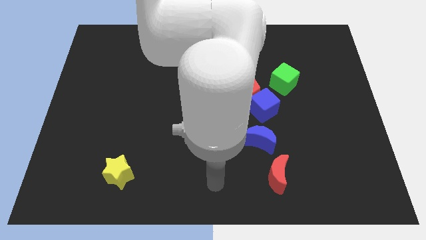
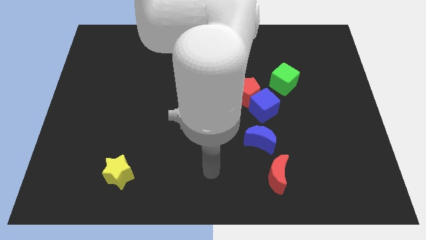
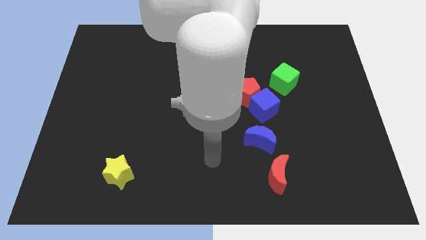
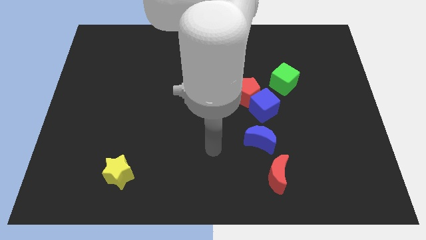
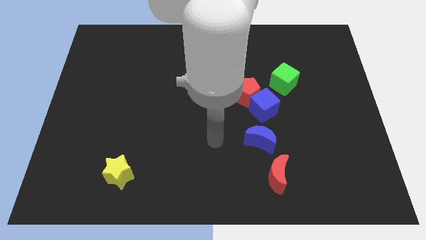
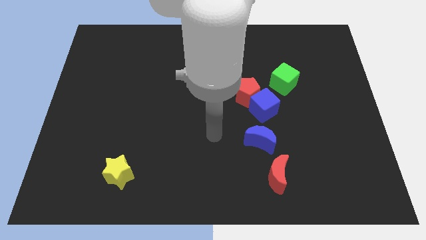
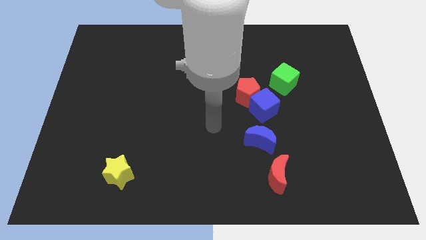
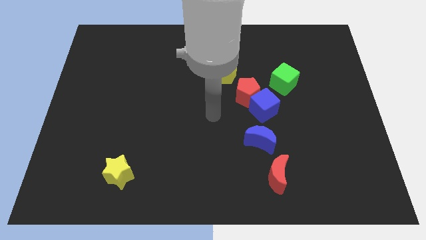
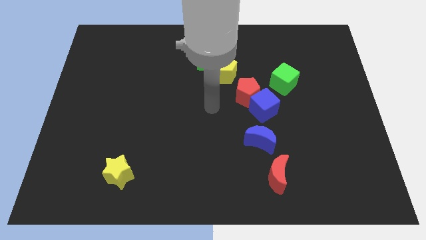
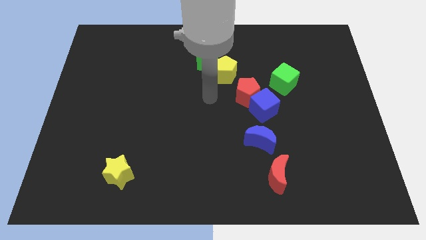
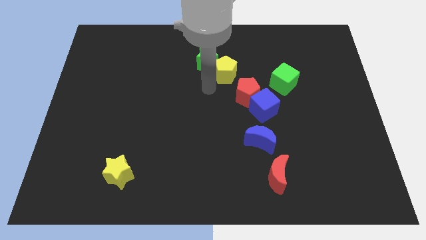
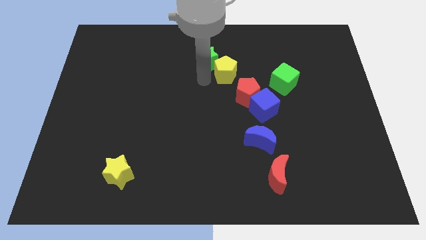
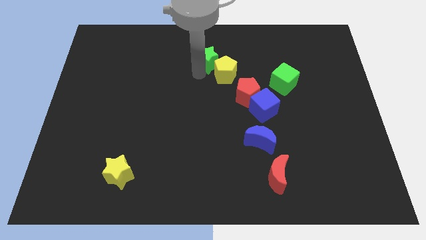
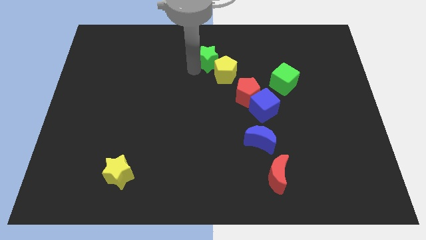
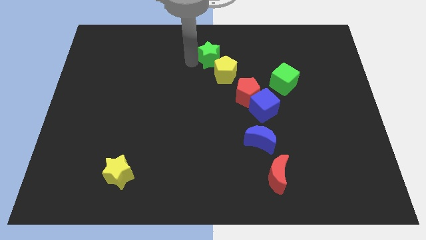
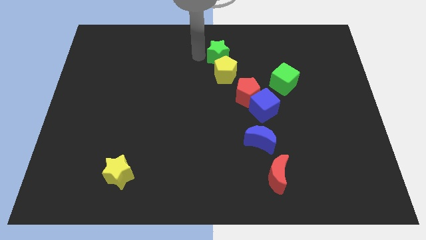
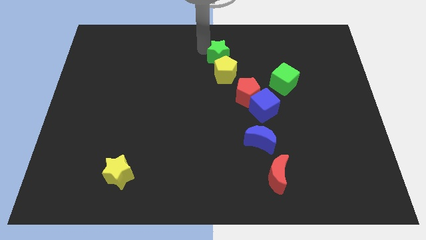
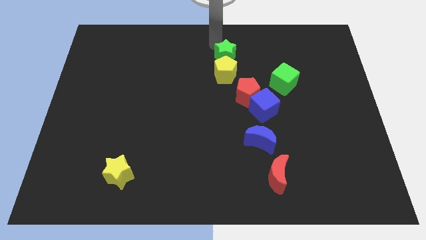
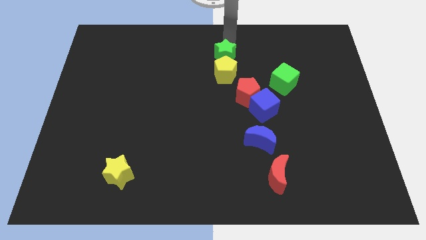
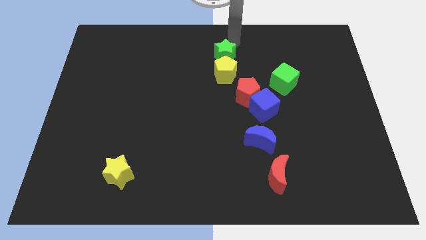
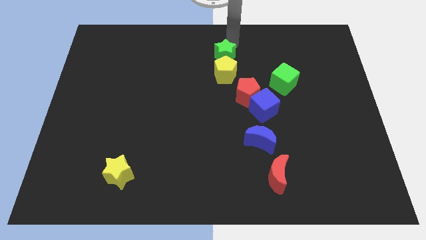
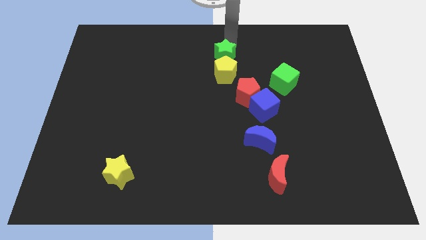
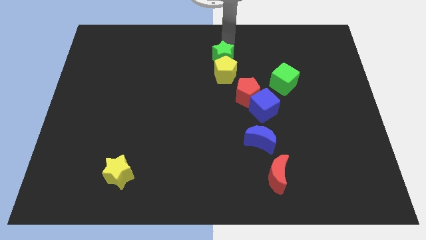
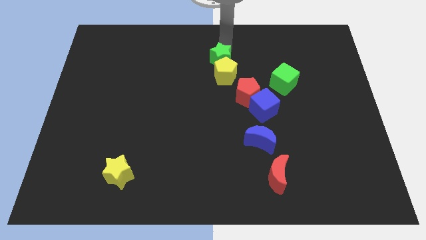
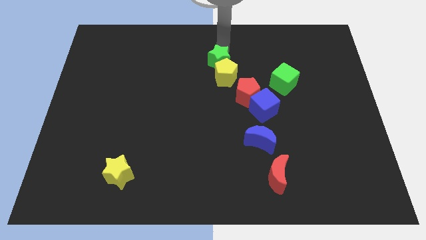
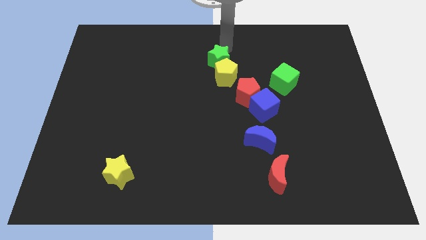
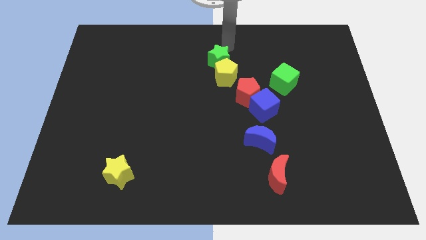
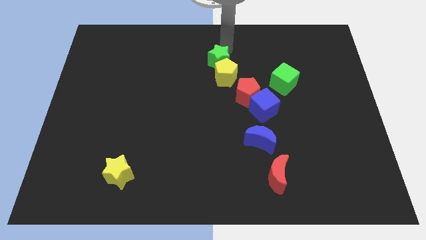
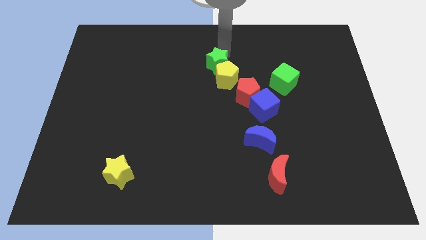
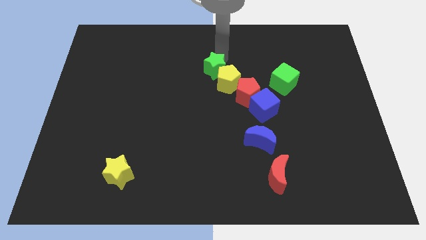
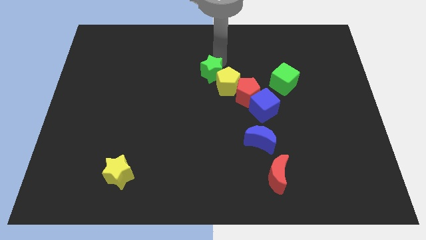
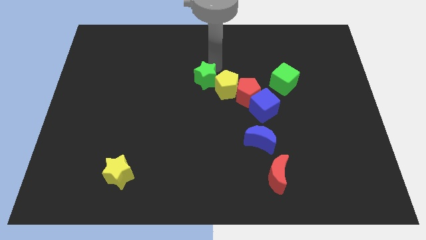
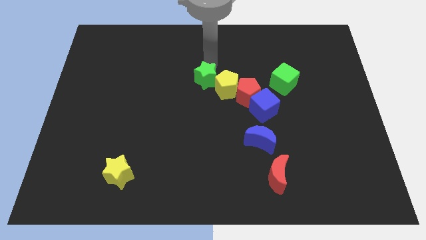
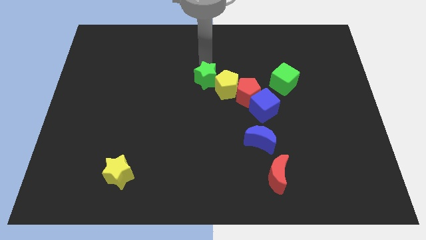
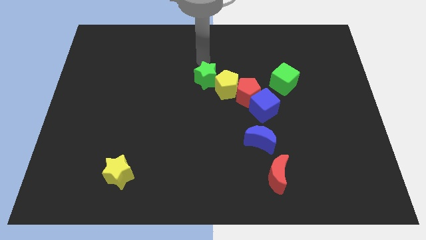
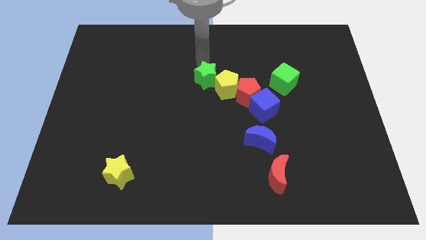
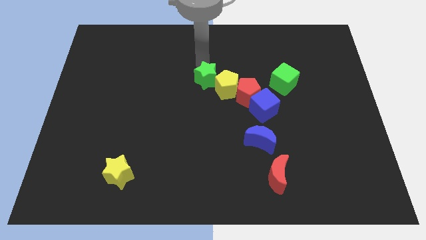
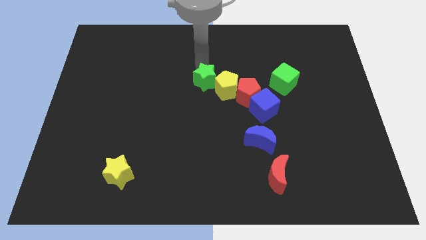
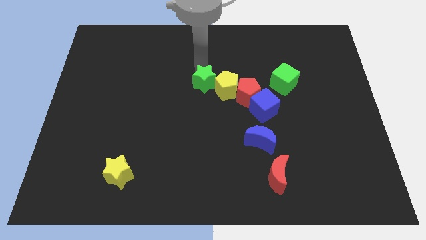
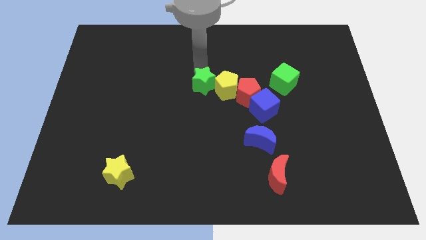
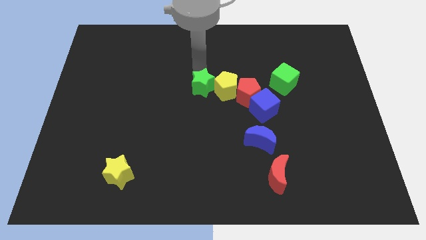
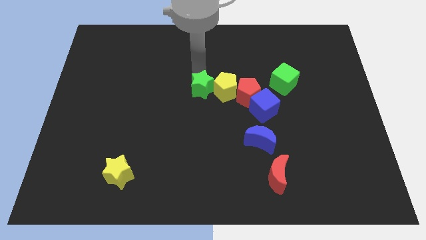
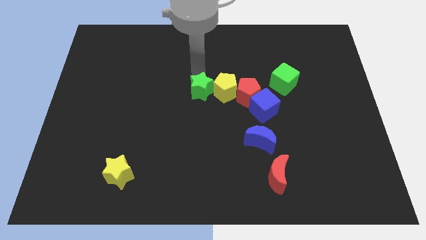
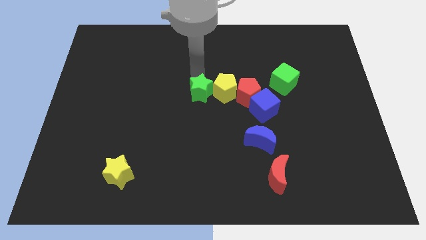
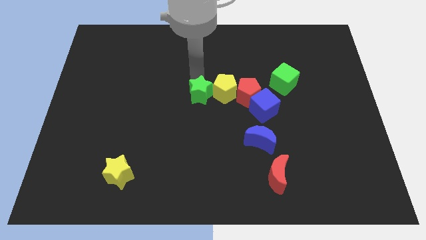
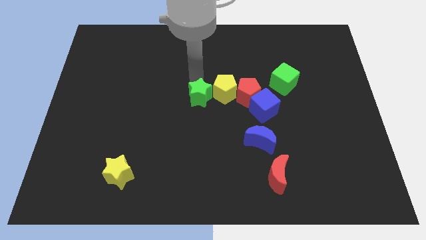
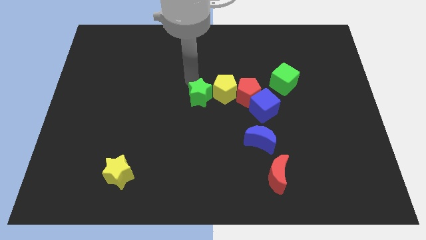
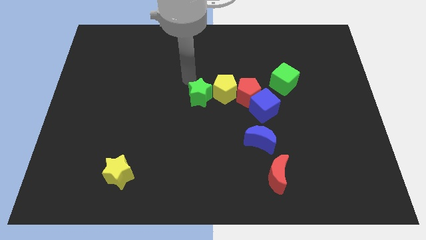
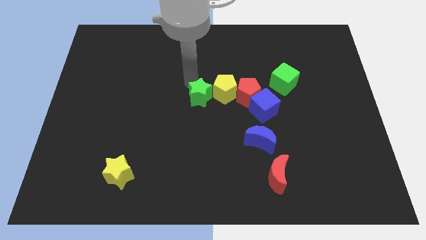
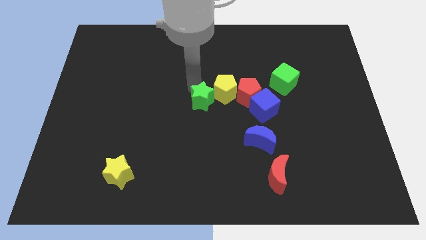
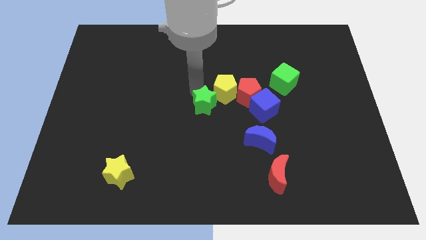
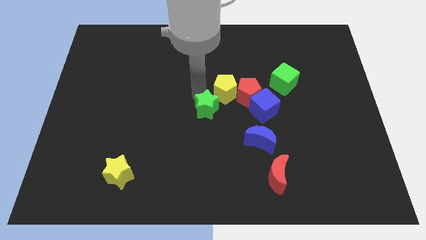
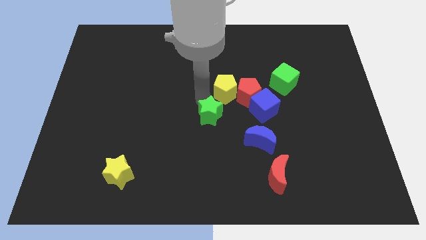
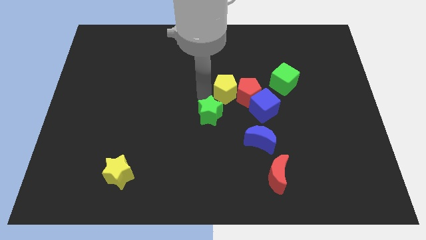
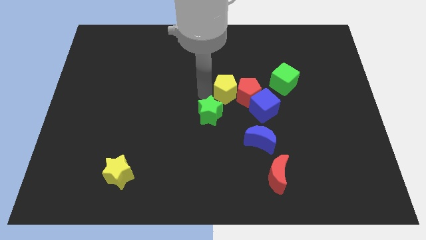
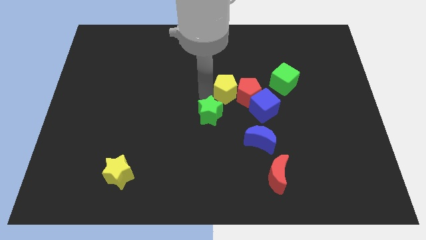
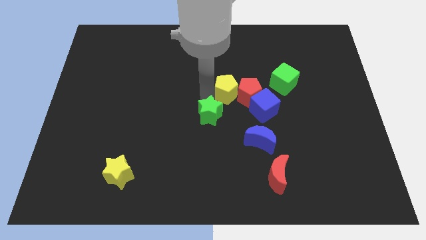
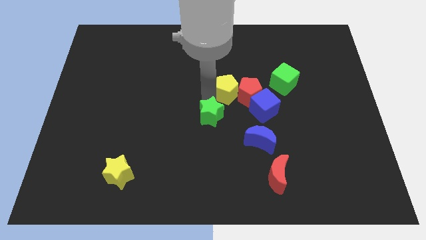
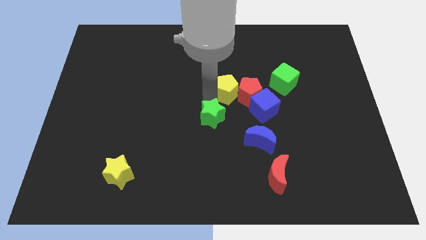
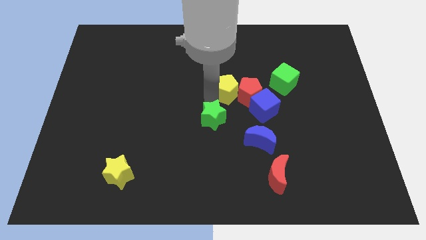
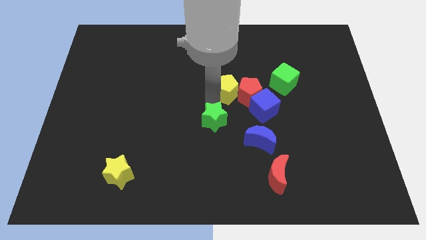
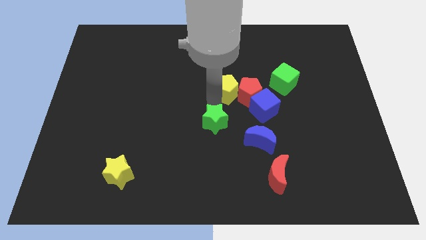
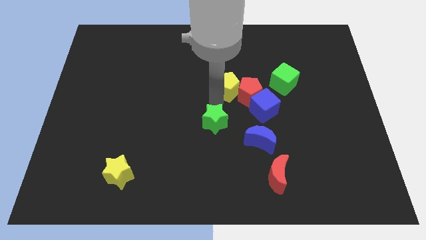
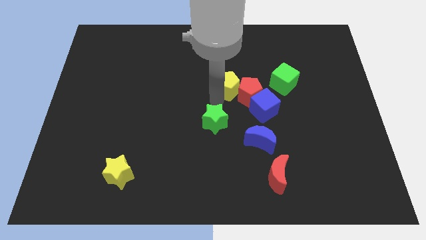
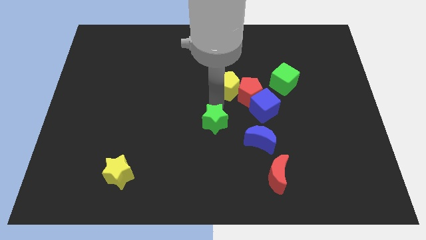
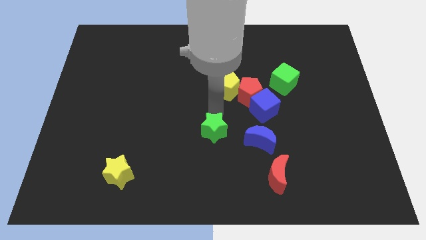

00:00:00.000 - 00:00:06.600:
push the green star down

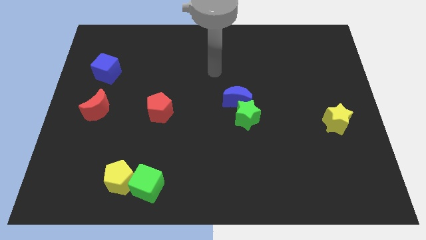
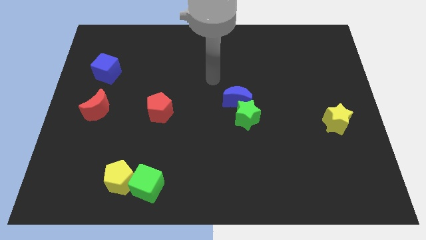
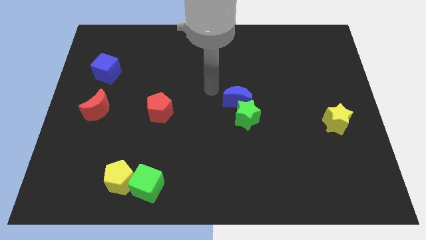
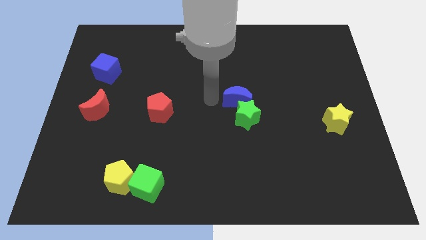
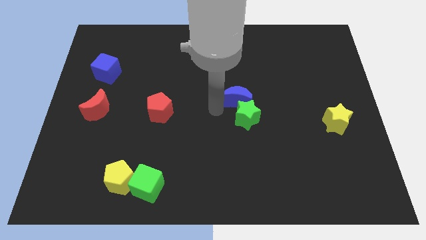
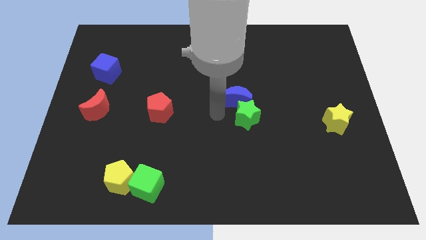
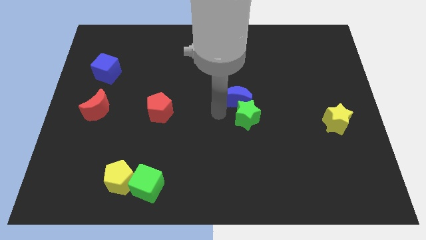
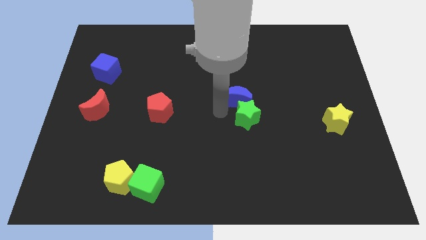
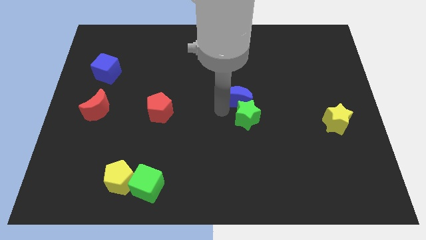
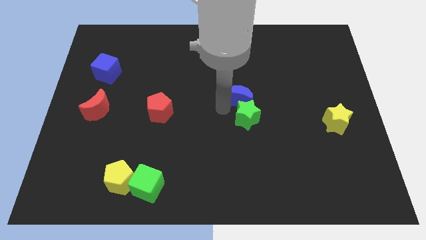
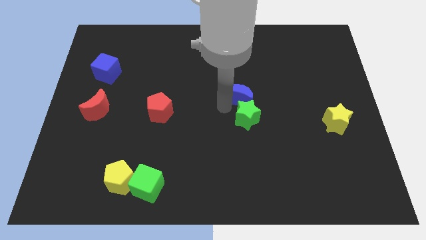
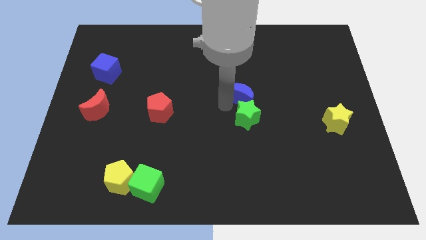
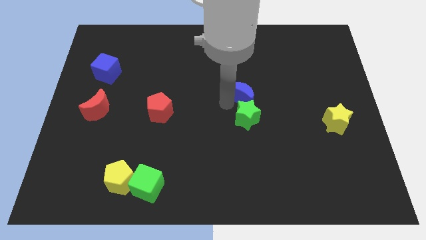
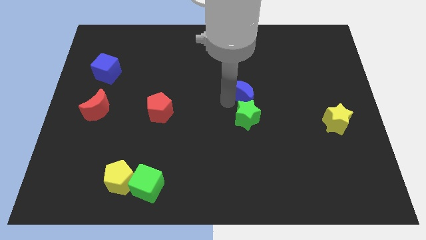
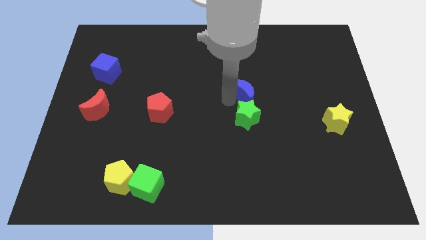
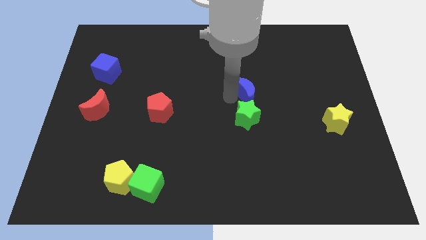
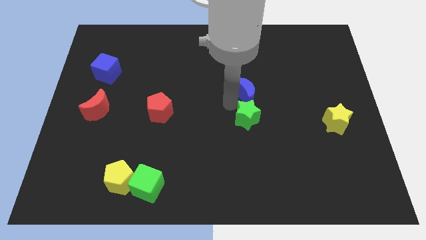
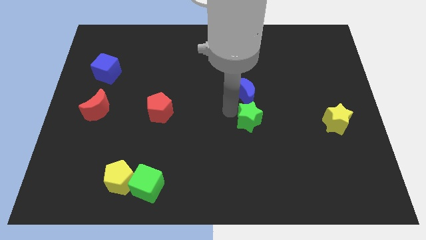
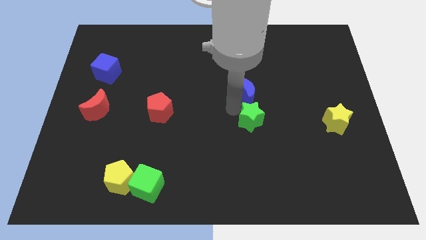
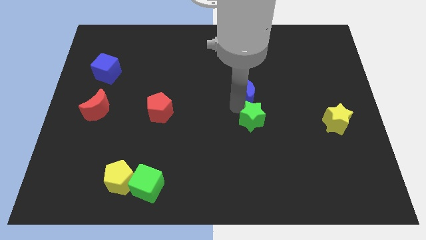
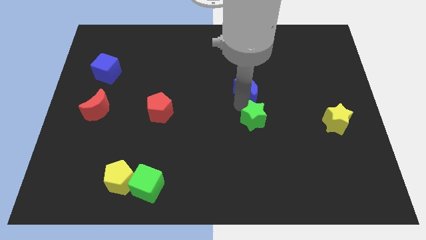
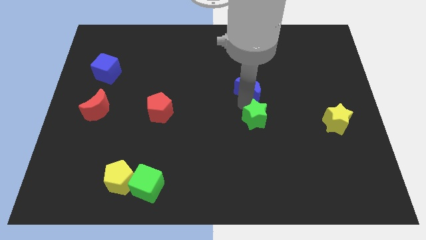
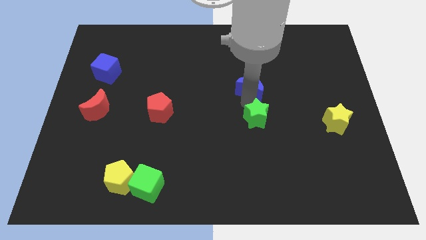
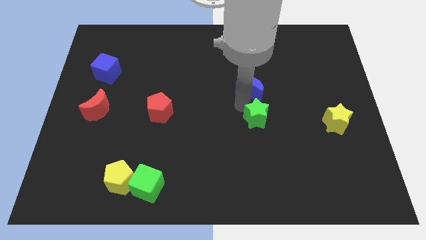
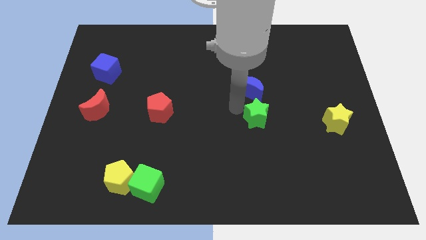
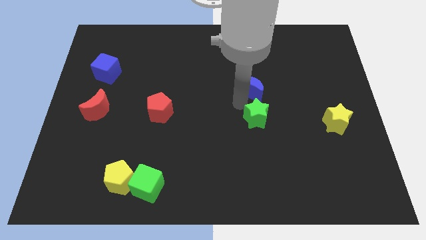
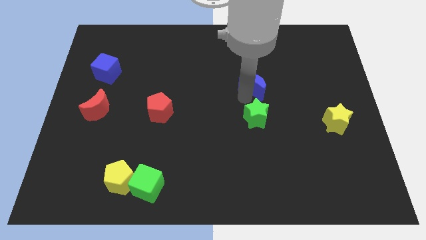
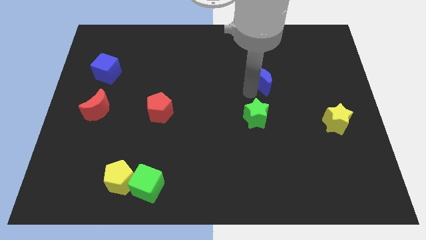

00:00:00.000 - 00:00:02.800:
move the blue moon upwards and to the right diagonally a little
